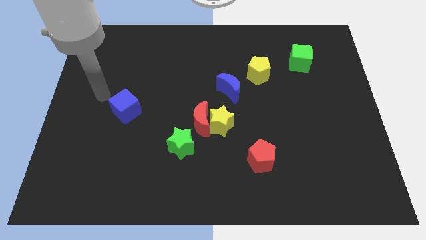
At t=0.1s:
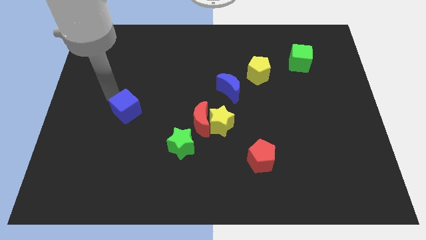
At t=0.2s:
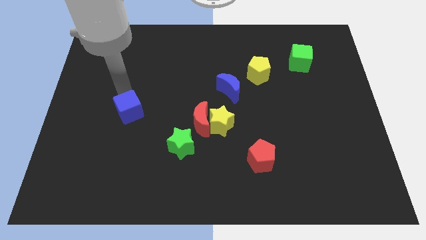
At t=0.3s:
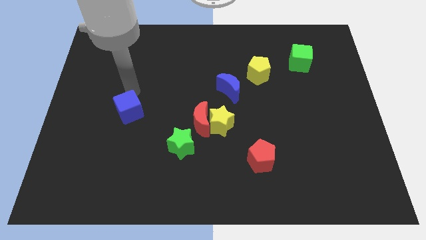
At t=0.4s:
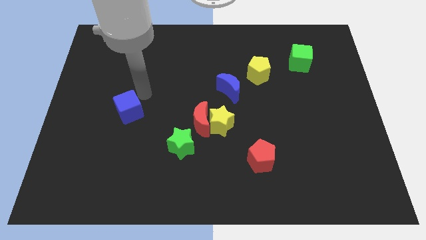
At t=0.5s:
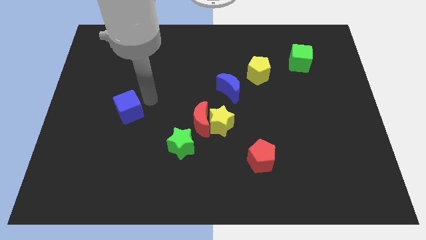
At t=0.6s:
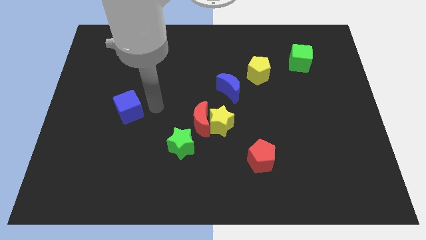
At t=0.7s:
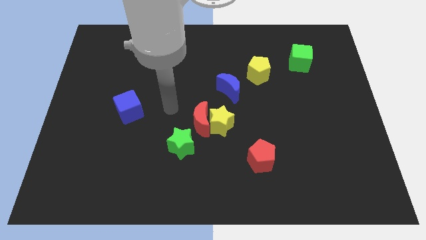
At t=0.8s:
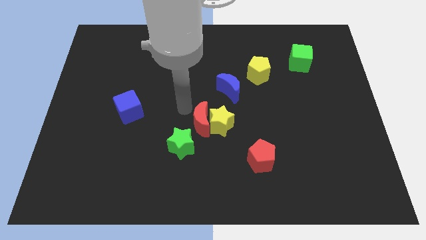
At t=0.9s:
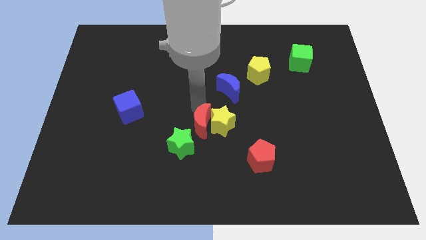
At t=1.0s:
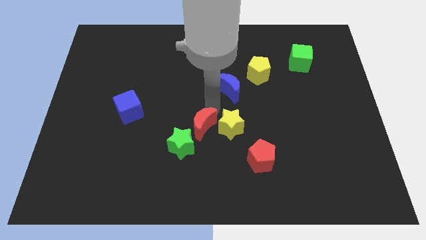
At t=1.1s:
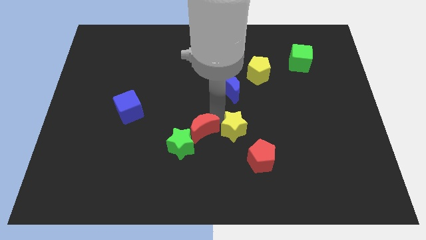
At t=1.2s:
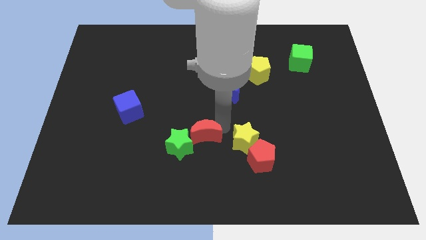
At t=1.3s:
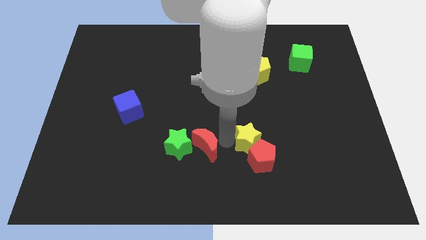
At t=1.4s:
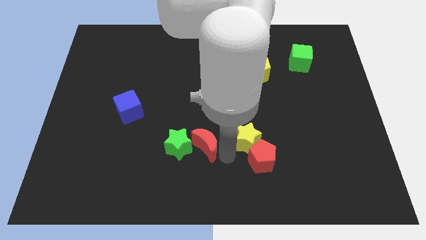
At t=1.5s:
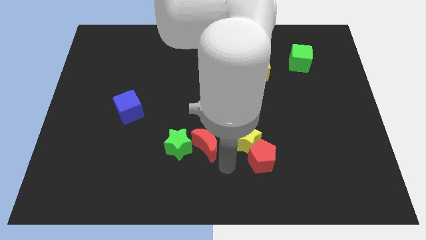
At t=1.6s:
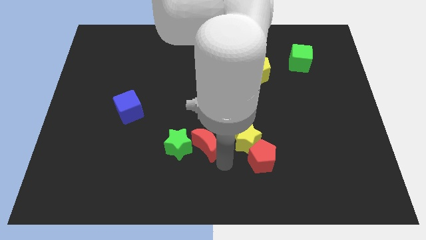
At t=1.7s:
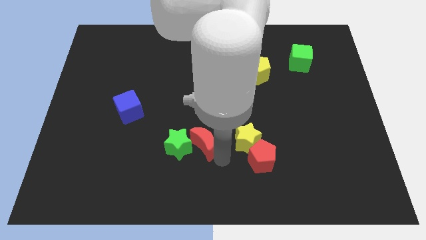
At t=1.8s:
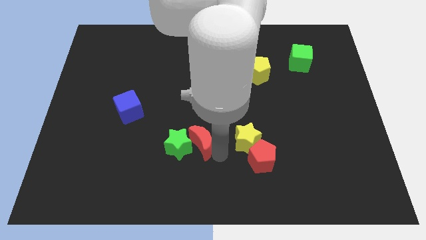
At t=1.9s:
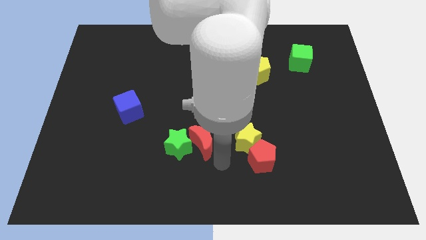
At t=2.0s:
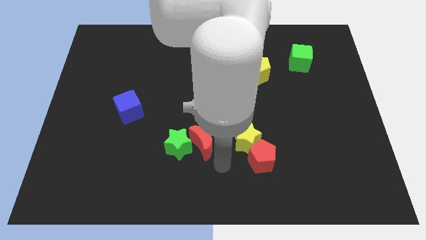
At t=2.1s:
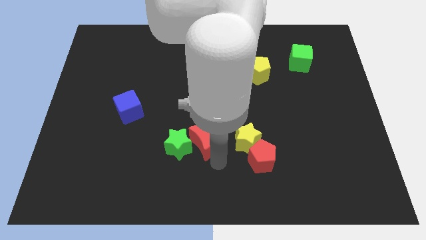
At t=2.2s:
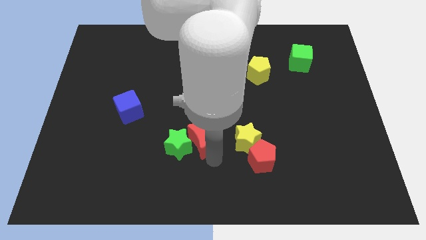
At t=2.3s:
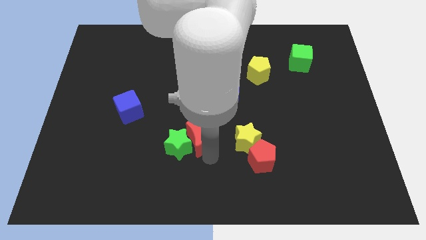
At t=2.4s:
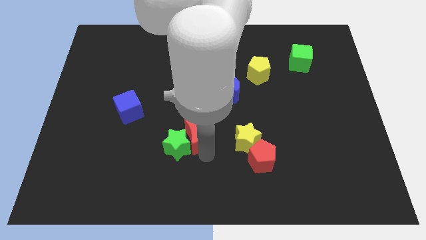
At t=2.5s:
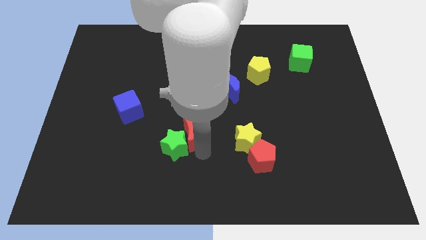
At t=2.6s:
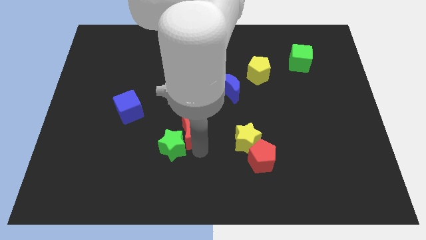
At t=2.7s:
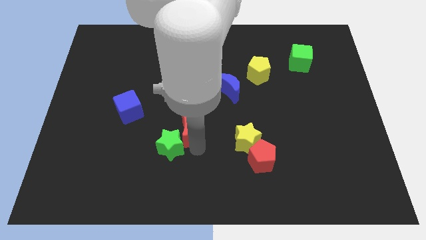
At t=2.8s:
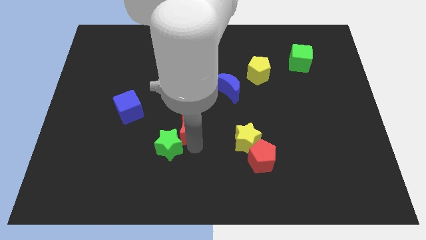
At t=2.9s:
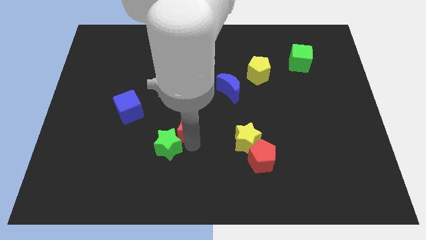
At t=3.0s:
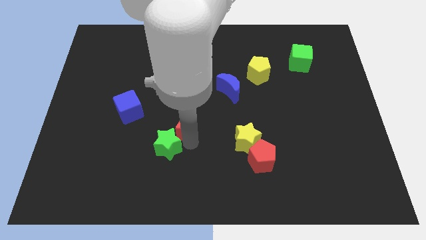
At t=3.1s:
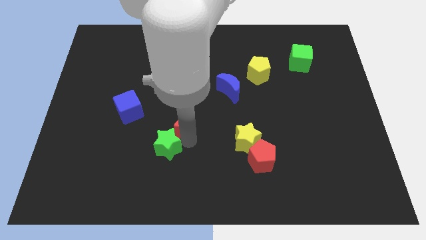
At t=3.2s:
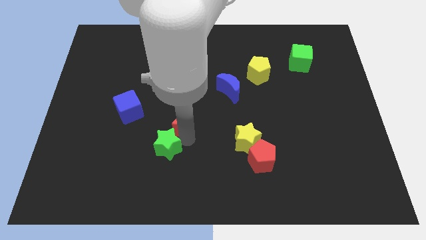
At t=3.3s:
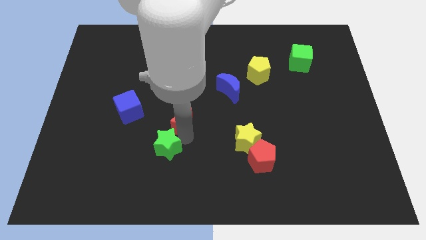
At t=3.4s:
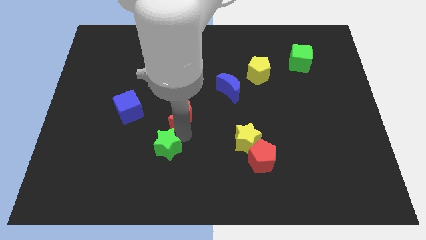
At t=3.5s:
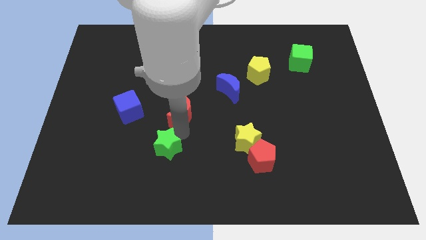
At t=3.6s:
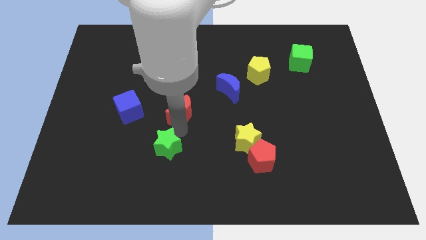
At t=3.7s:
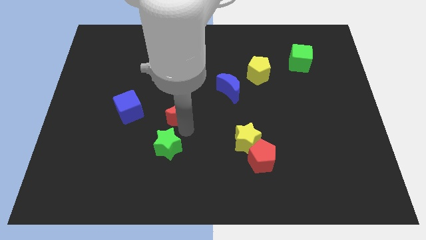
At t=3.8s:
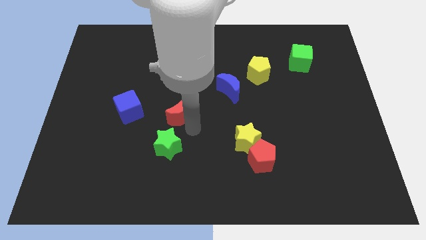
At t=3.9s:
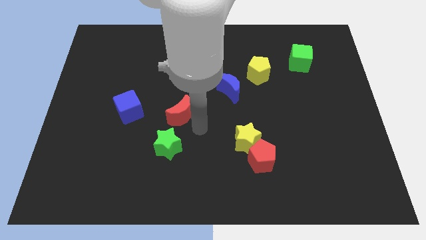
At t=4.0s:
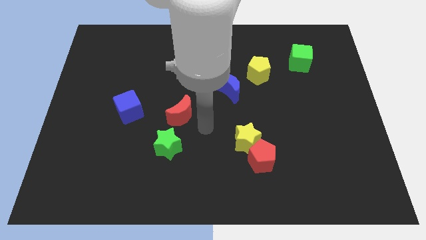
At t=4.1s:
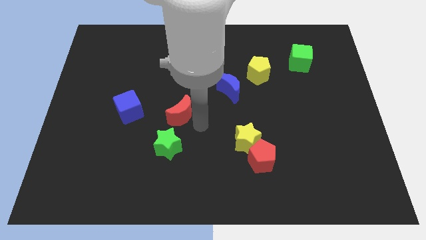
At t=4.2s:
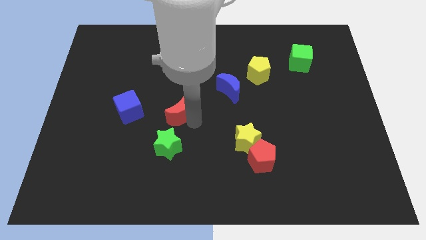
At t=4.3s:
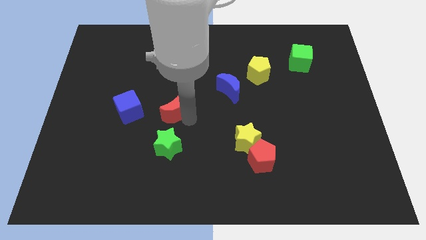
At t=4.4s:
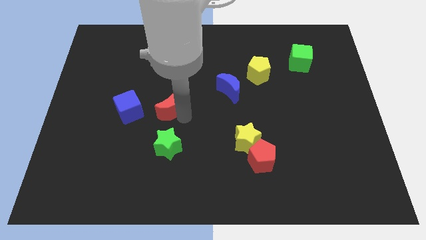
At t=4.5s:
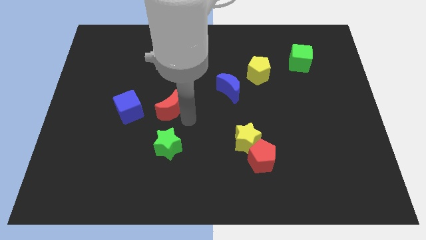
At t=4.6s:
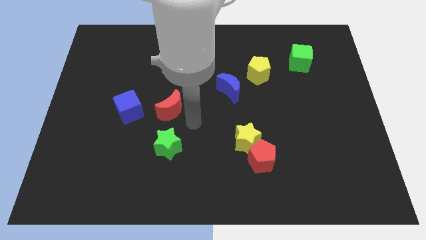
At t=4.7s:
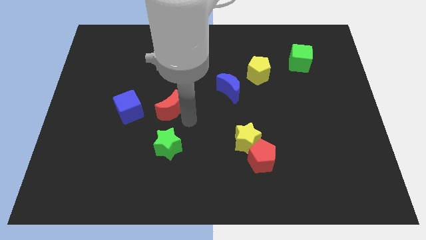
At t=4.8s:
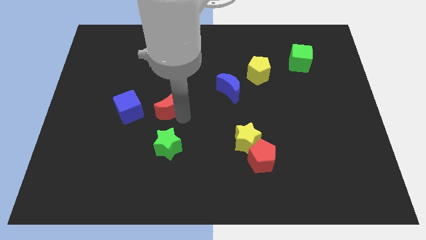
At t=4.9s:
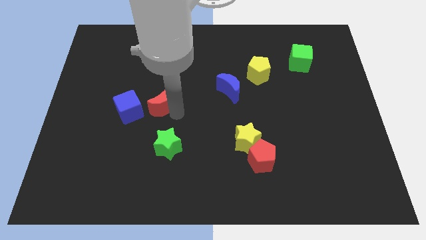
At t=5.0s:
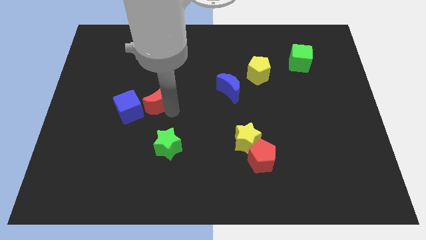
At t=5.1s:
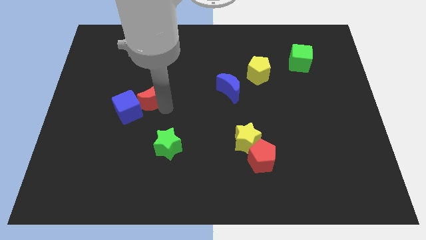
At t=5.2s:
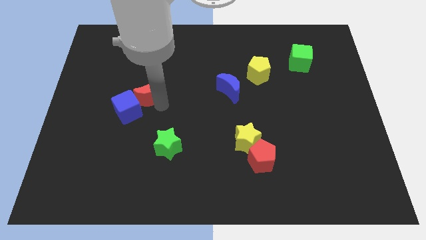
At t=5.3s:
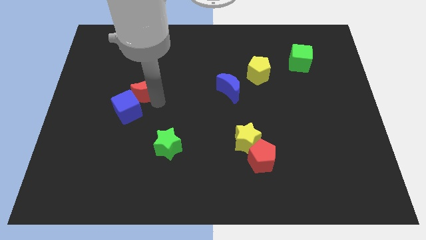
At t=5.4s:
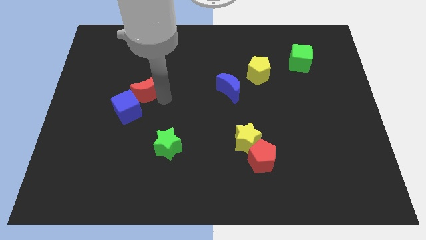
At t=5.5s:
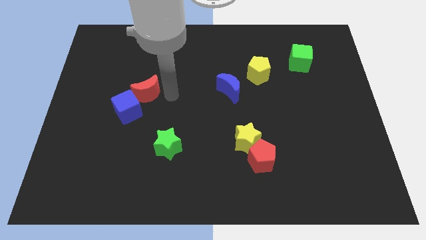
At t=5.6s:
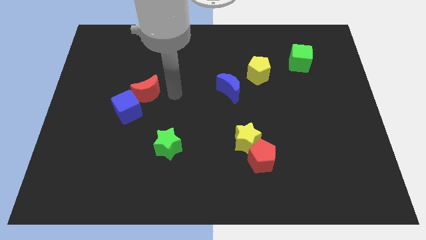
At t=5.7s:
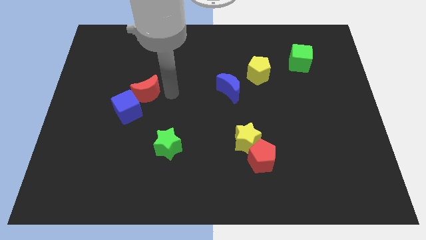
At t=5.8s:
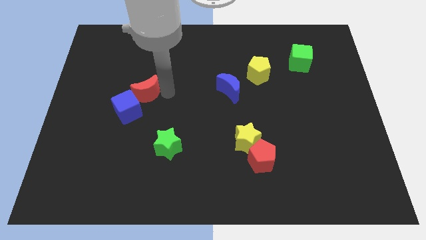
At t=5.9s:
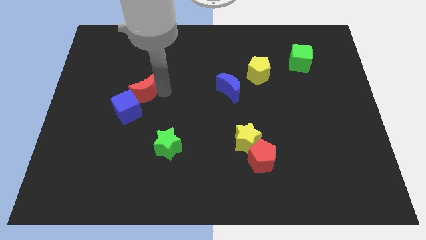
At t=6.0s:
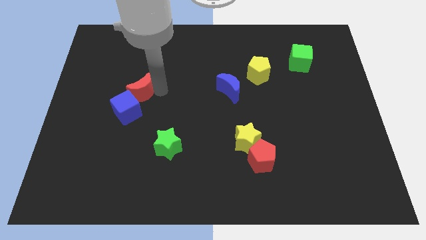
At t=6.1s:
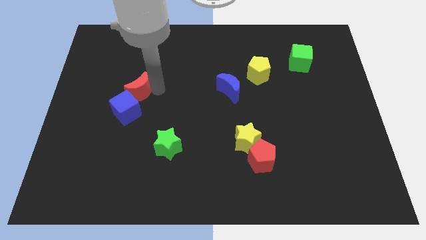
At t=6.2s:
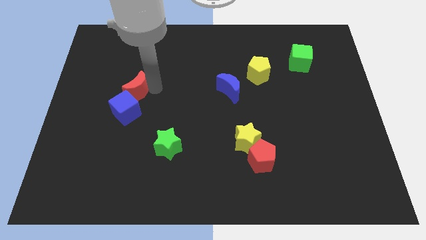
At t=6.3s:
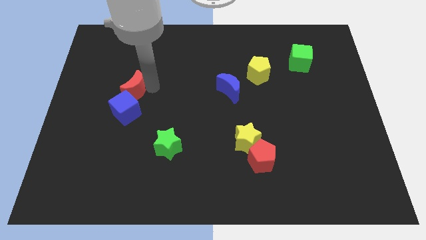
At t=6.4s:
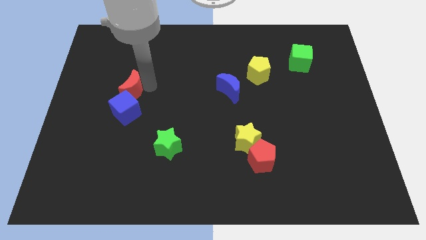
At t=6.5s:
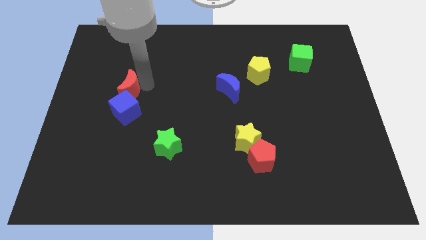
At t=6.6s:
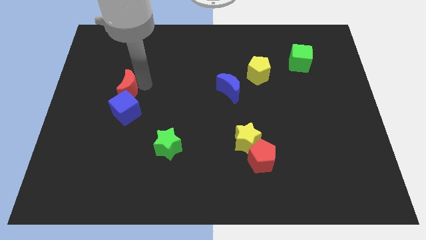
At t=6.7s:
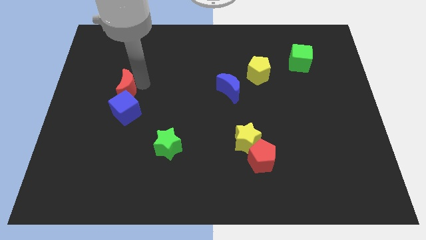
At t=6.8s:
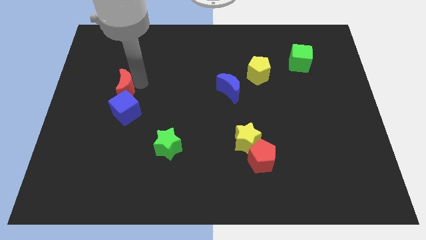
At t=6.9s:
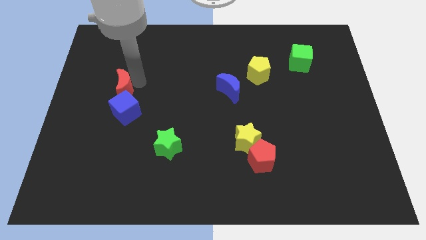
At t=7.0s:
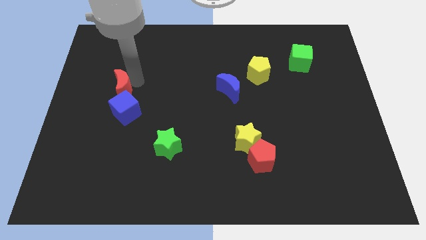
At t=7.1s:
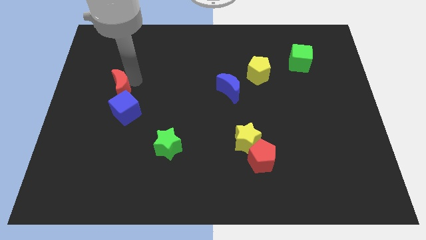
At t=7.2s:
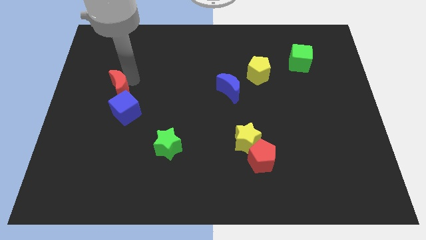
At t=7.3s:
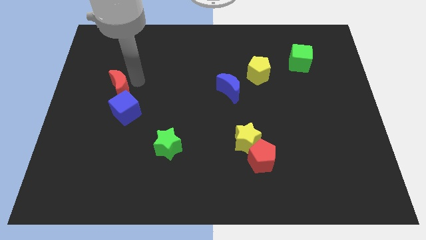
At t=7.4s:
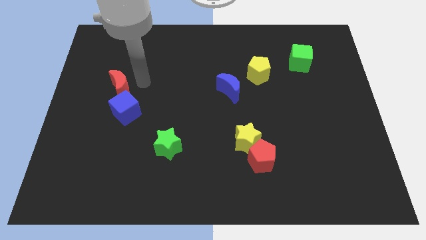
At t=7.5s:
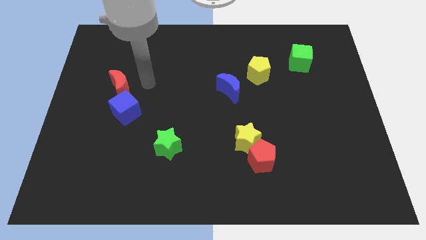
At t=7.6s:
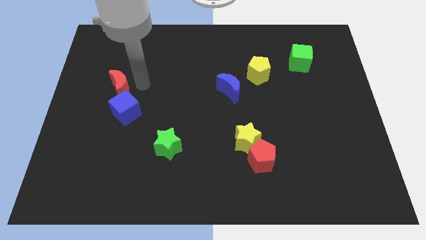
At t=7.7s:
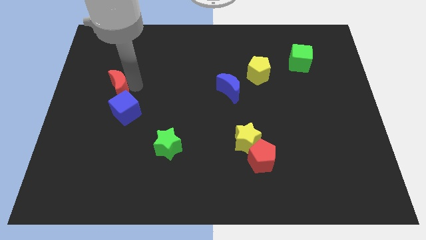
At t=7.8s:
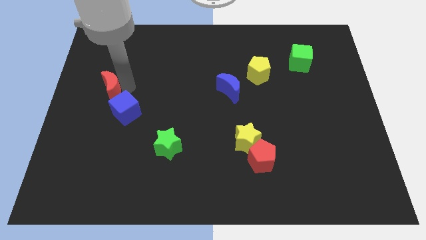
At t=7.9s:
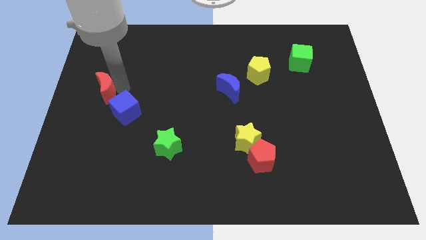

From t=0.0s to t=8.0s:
put the red moon to the left side of the board
